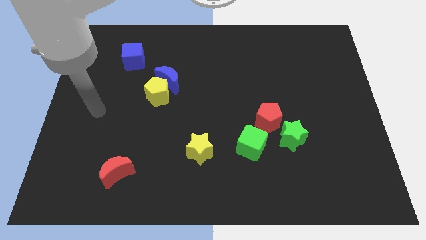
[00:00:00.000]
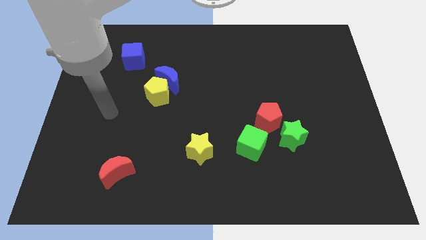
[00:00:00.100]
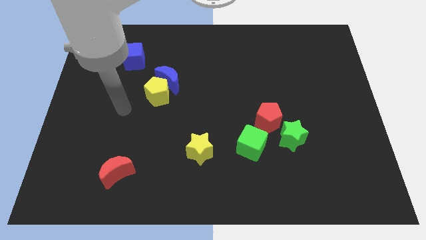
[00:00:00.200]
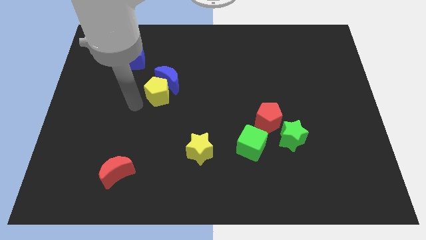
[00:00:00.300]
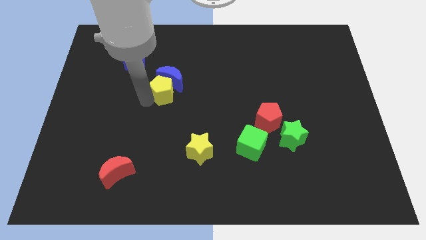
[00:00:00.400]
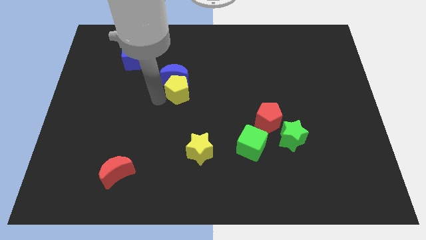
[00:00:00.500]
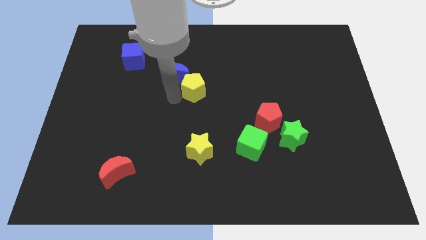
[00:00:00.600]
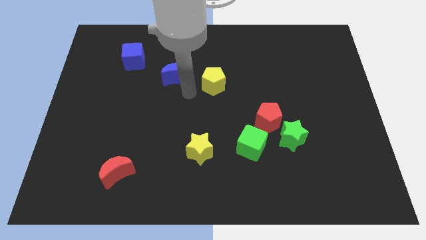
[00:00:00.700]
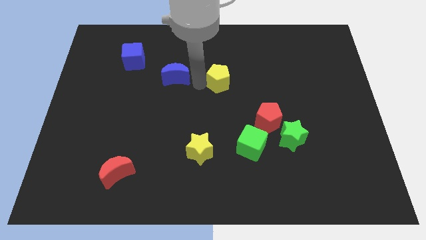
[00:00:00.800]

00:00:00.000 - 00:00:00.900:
pull the blue moon apart from the yellow pentagon

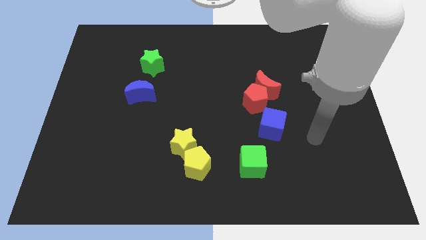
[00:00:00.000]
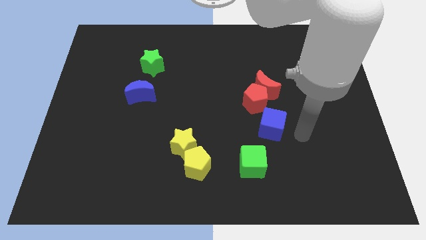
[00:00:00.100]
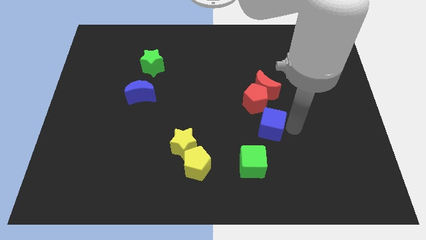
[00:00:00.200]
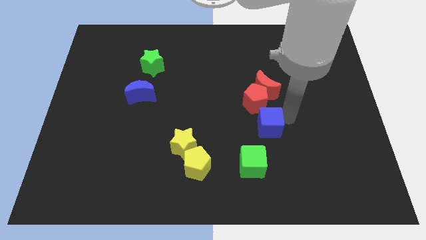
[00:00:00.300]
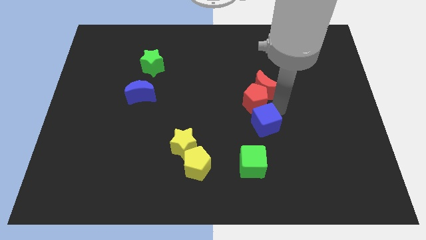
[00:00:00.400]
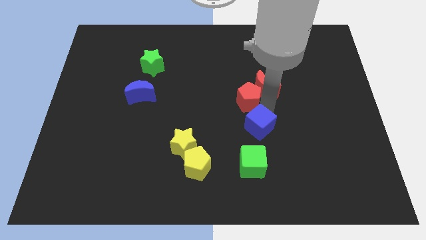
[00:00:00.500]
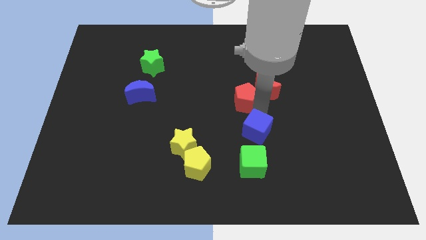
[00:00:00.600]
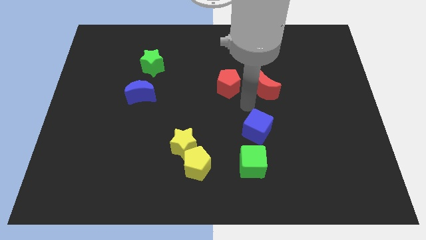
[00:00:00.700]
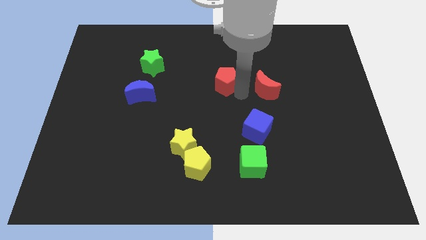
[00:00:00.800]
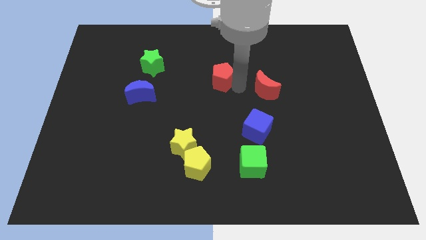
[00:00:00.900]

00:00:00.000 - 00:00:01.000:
separate the red moon from the red pentagon

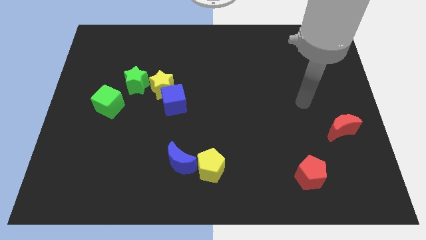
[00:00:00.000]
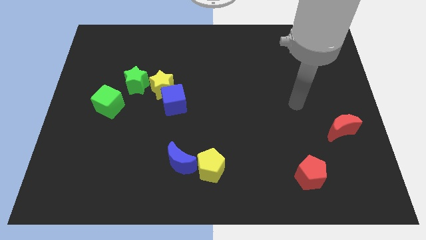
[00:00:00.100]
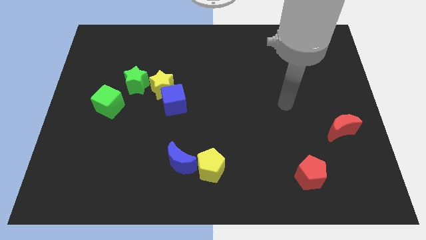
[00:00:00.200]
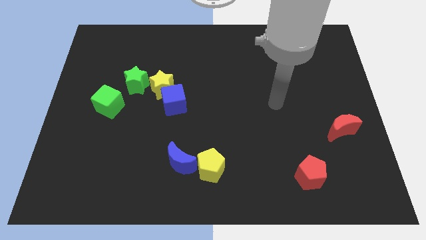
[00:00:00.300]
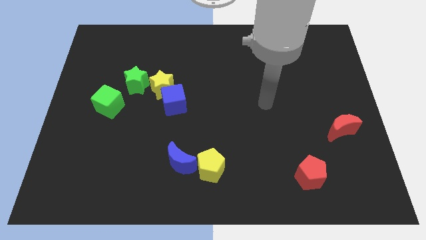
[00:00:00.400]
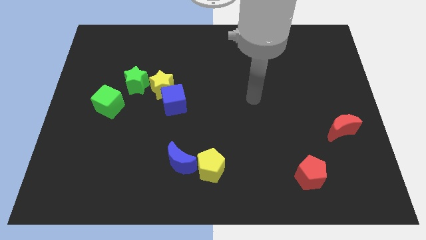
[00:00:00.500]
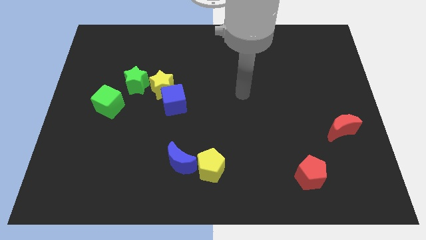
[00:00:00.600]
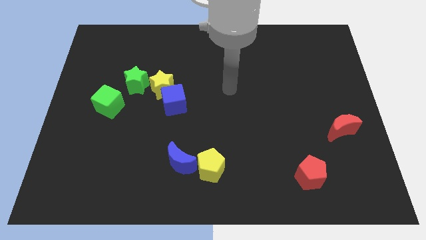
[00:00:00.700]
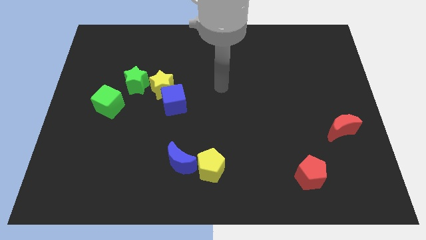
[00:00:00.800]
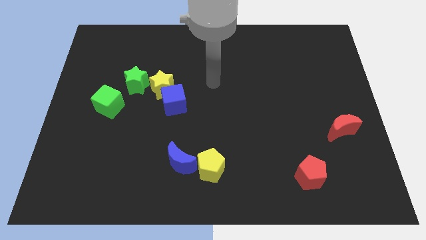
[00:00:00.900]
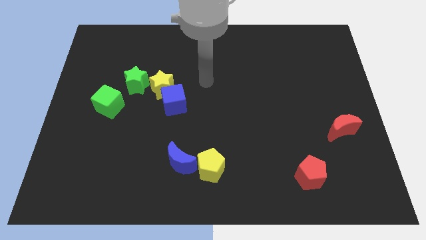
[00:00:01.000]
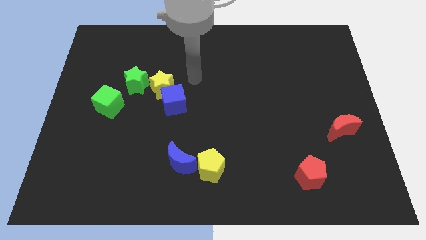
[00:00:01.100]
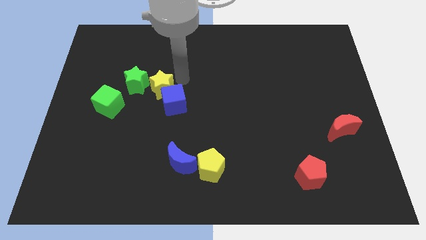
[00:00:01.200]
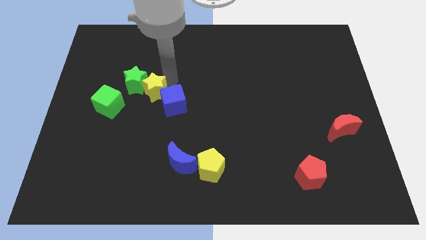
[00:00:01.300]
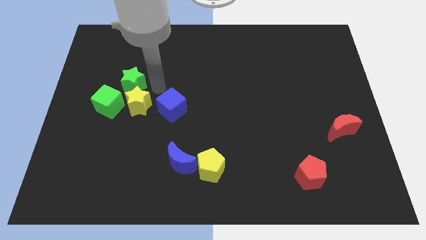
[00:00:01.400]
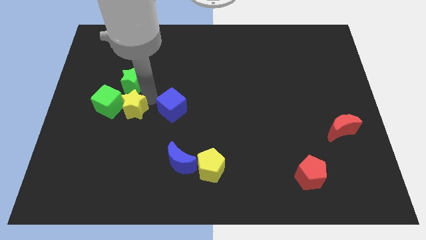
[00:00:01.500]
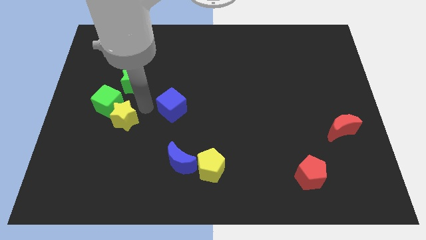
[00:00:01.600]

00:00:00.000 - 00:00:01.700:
separate the blue cube from the yellow star

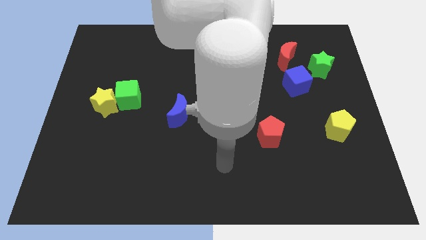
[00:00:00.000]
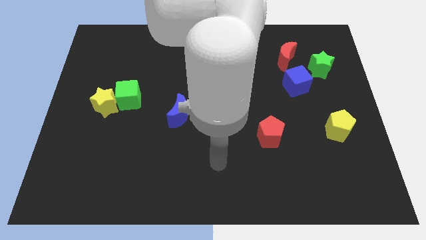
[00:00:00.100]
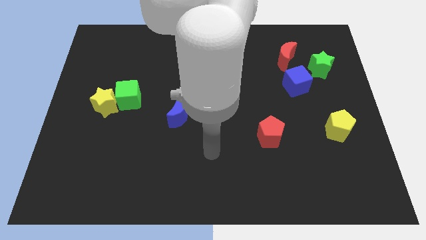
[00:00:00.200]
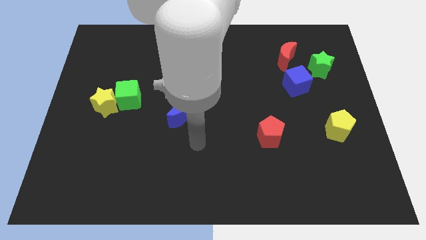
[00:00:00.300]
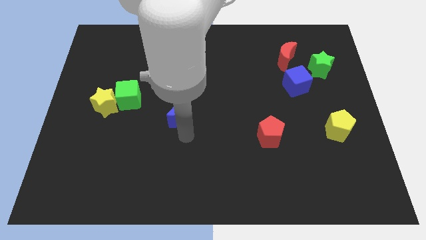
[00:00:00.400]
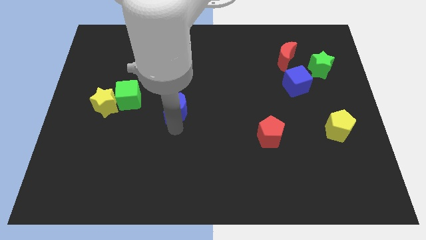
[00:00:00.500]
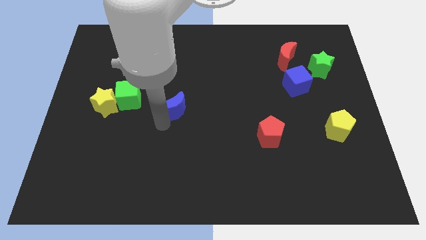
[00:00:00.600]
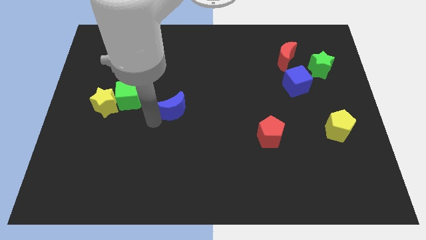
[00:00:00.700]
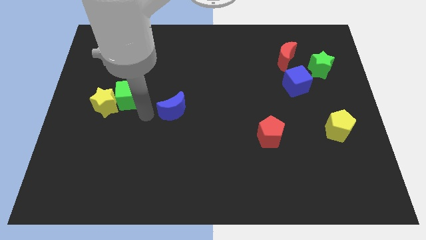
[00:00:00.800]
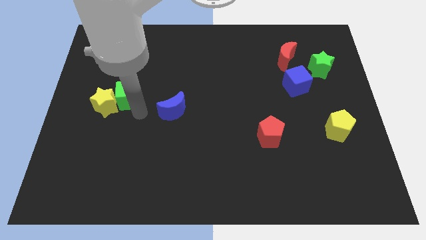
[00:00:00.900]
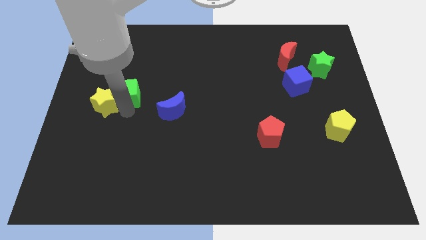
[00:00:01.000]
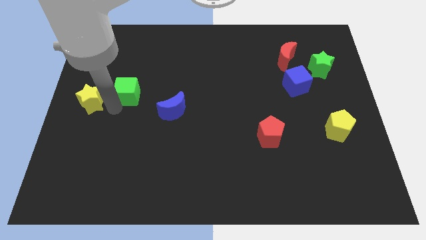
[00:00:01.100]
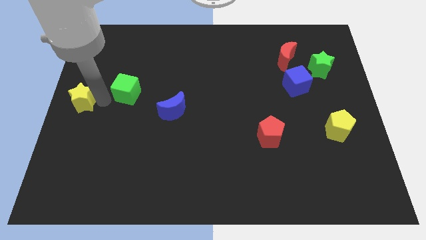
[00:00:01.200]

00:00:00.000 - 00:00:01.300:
move the green cube away from the yellow star

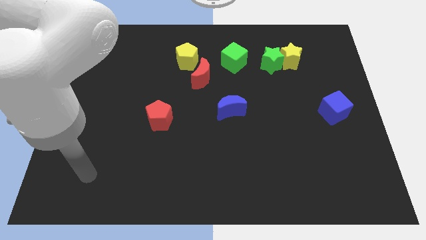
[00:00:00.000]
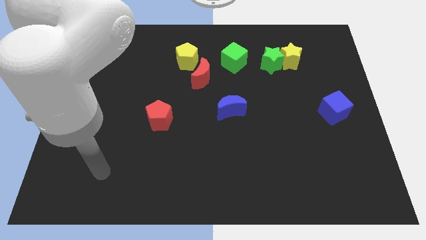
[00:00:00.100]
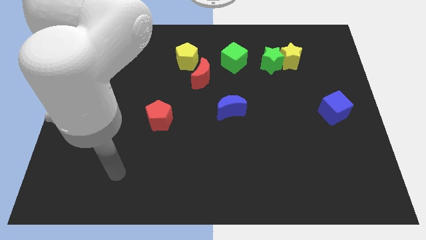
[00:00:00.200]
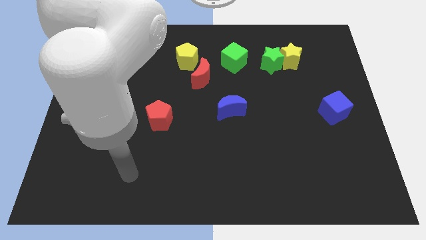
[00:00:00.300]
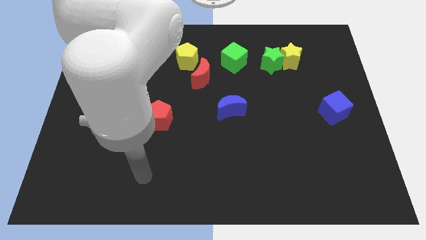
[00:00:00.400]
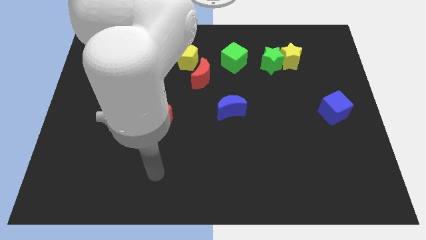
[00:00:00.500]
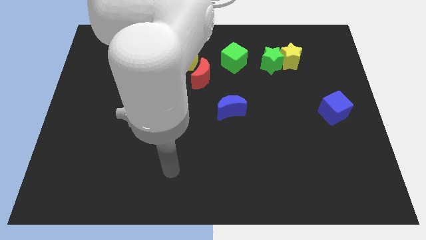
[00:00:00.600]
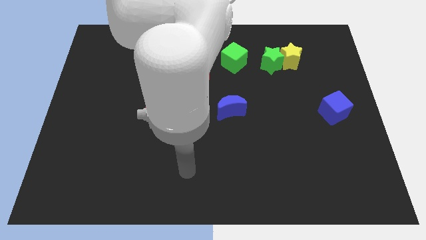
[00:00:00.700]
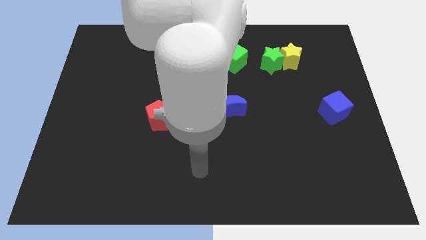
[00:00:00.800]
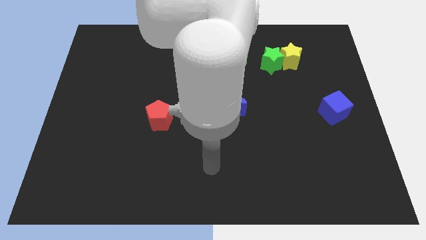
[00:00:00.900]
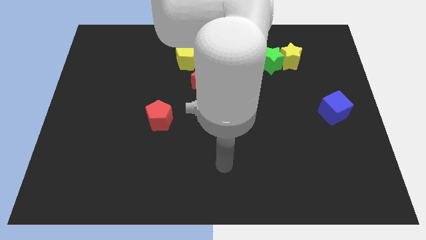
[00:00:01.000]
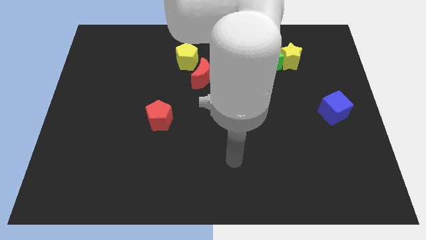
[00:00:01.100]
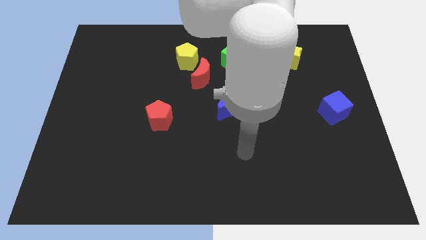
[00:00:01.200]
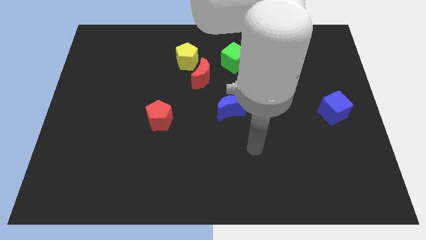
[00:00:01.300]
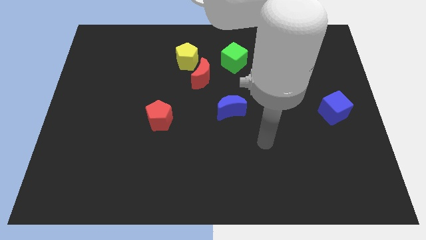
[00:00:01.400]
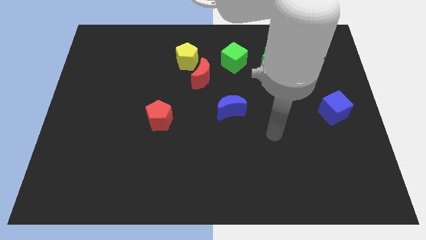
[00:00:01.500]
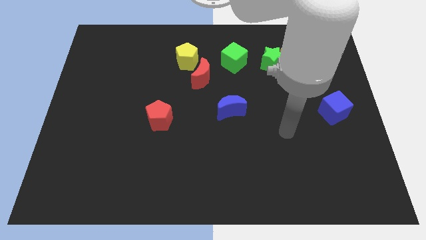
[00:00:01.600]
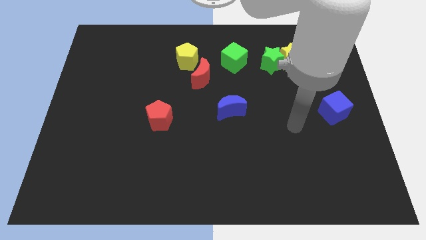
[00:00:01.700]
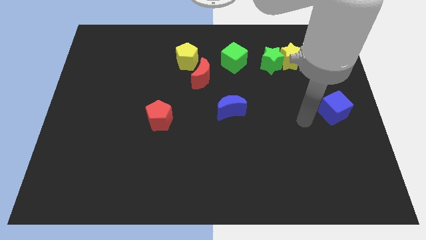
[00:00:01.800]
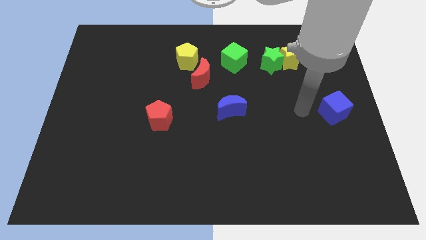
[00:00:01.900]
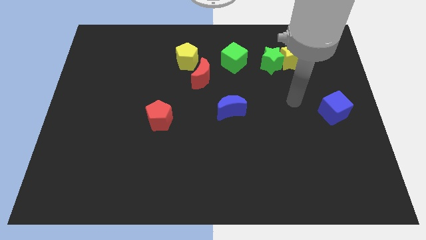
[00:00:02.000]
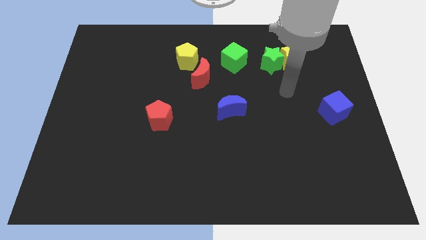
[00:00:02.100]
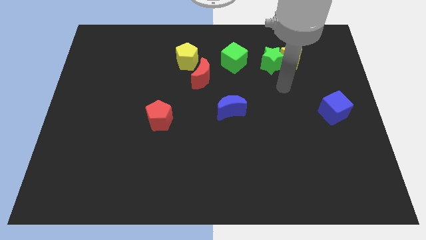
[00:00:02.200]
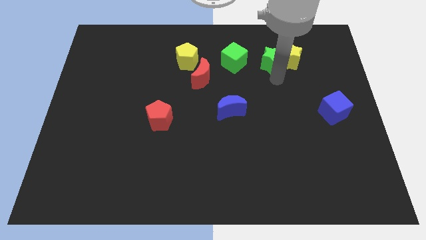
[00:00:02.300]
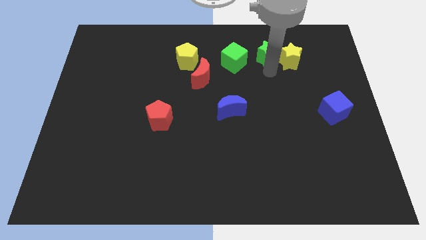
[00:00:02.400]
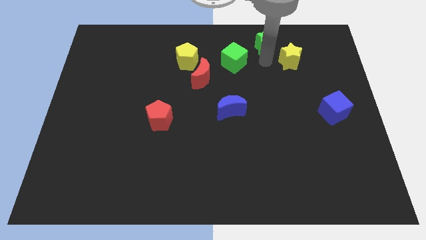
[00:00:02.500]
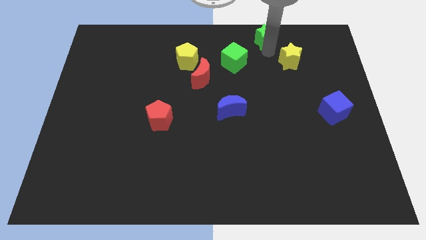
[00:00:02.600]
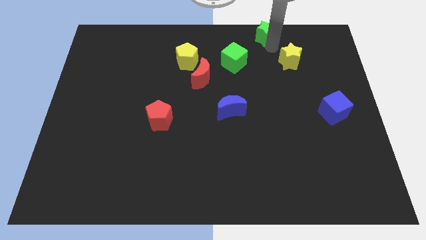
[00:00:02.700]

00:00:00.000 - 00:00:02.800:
move the yellow star away from the green star

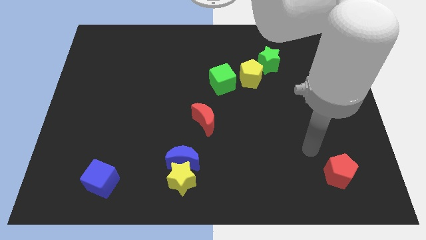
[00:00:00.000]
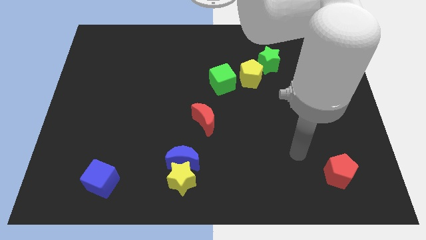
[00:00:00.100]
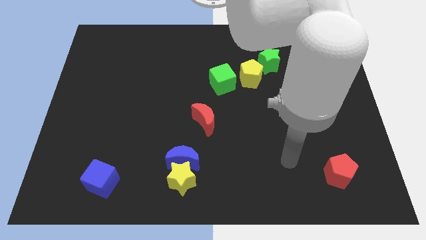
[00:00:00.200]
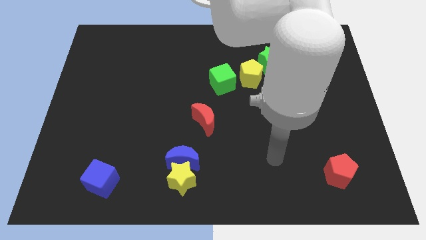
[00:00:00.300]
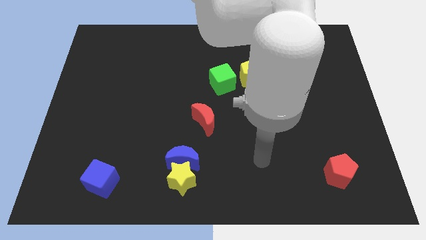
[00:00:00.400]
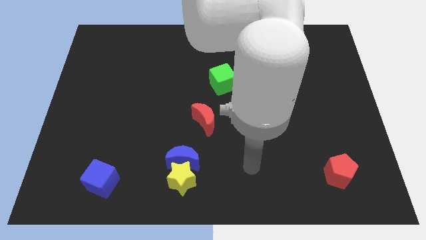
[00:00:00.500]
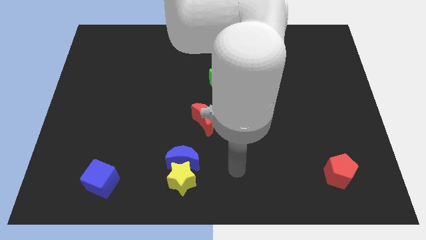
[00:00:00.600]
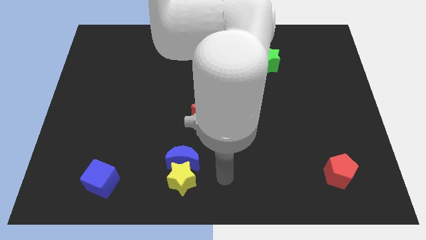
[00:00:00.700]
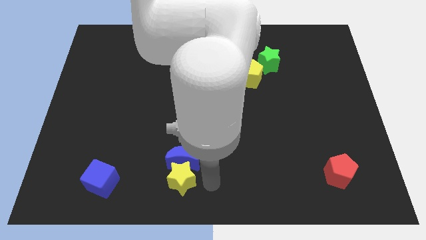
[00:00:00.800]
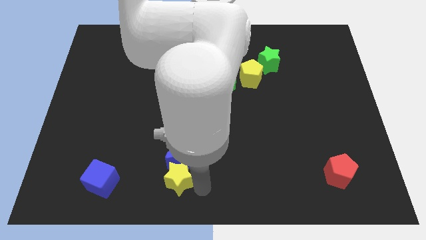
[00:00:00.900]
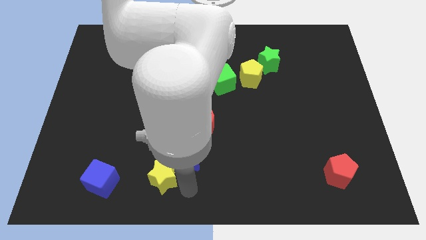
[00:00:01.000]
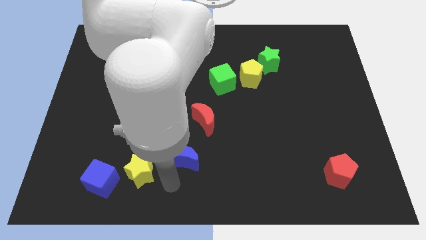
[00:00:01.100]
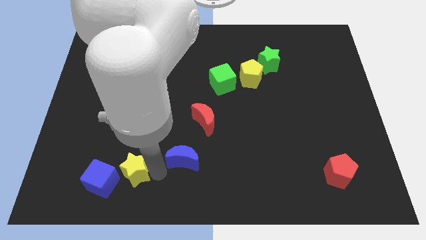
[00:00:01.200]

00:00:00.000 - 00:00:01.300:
separate the blue moon from the yellow star

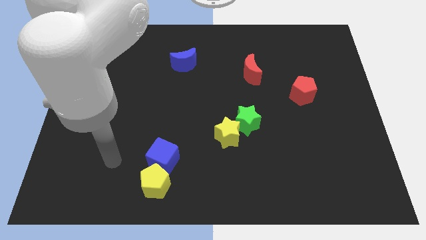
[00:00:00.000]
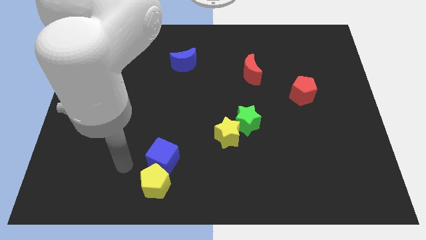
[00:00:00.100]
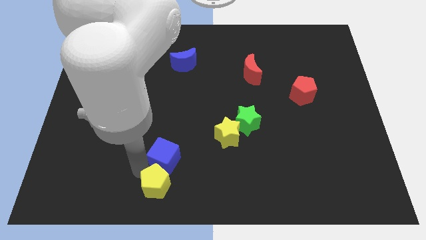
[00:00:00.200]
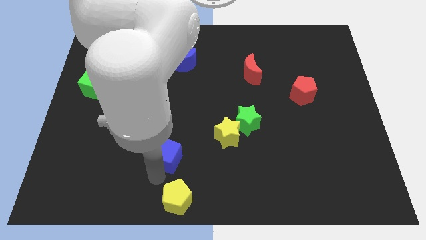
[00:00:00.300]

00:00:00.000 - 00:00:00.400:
separate the blue cube from the yellow pentagon
